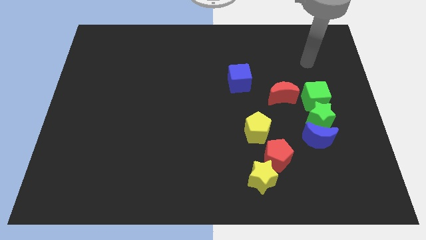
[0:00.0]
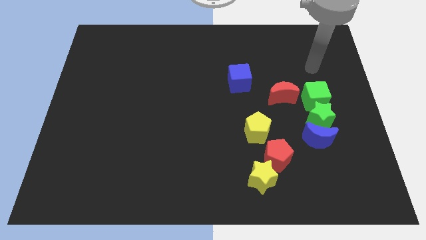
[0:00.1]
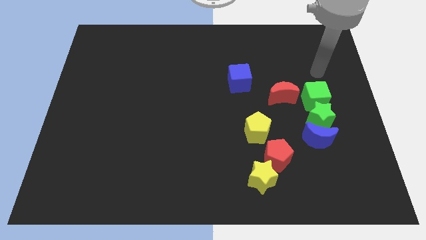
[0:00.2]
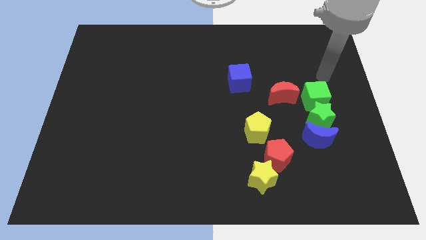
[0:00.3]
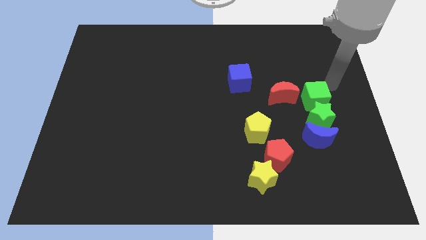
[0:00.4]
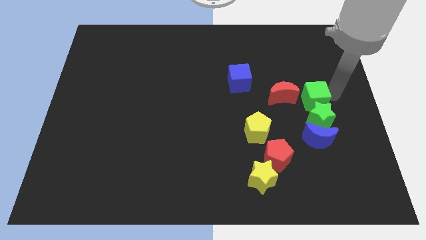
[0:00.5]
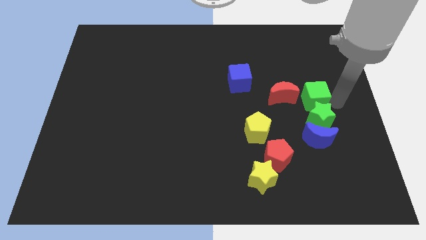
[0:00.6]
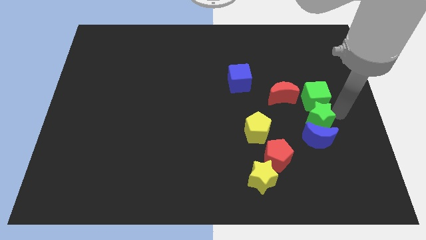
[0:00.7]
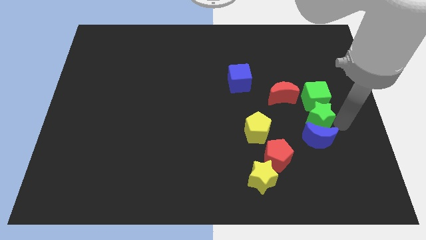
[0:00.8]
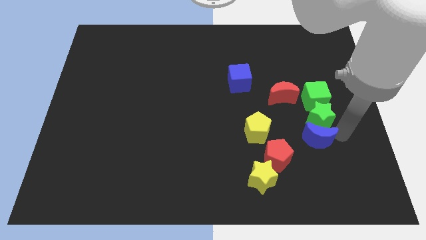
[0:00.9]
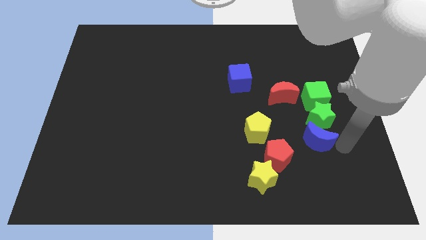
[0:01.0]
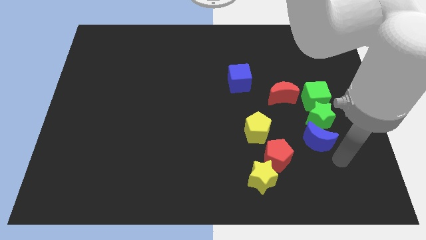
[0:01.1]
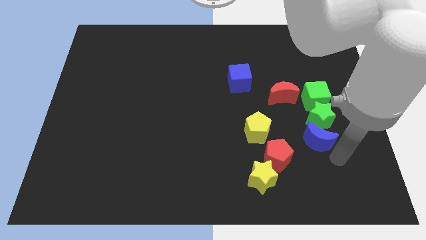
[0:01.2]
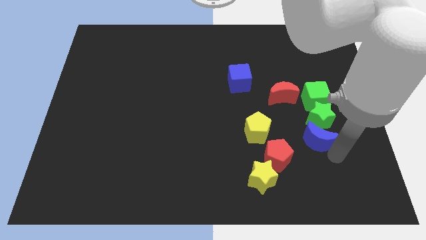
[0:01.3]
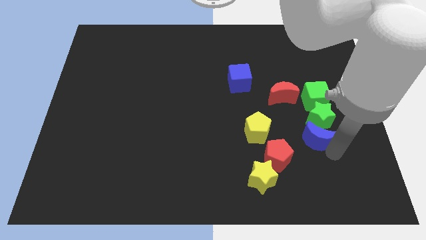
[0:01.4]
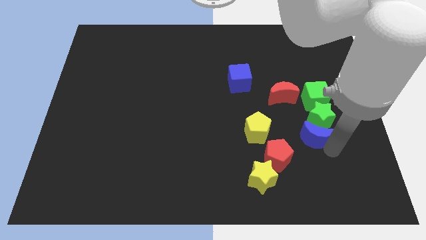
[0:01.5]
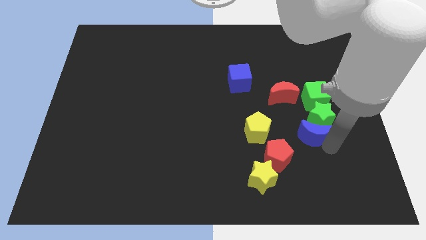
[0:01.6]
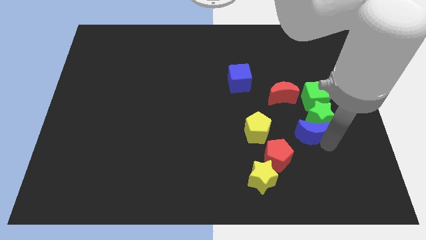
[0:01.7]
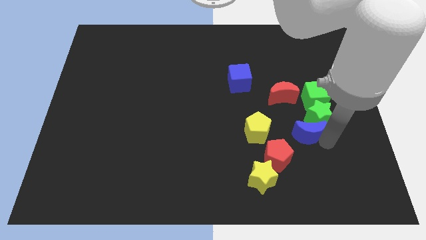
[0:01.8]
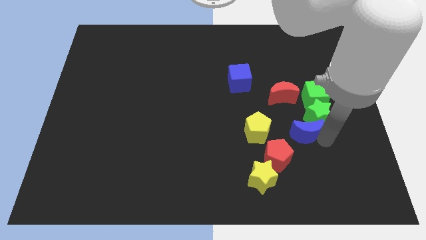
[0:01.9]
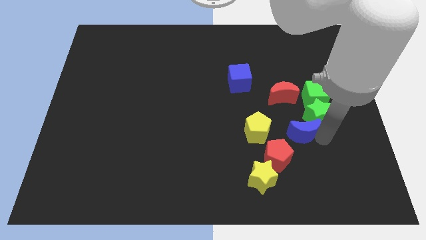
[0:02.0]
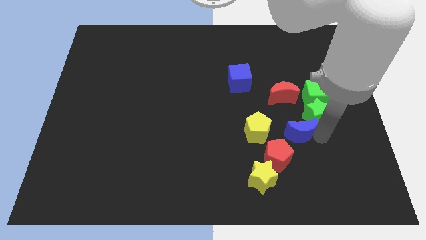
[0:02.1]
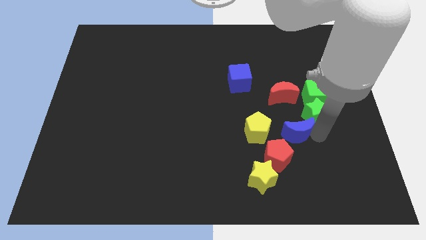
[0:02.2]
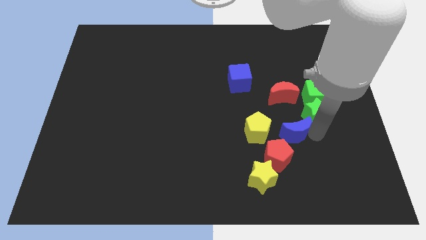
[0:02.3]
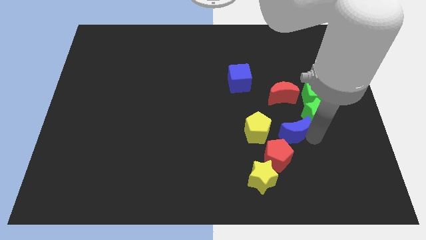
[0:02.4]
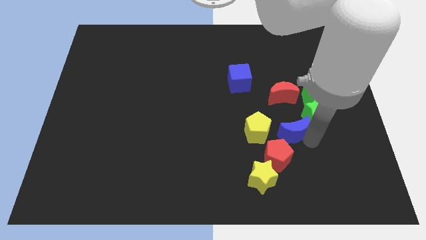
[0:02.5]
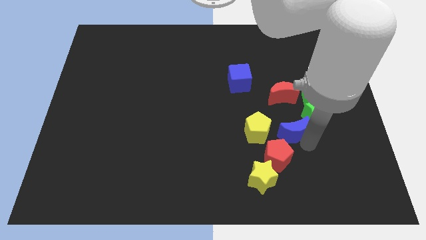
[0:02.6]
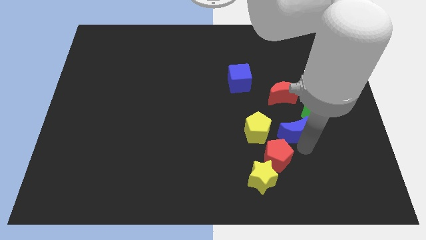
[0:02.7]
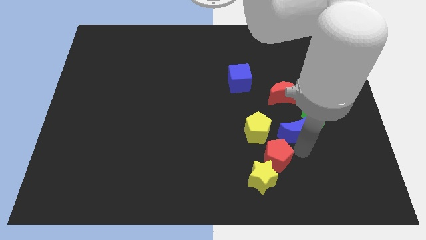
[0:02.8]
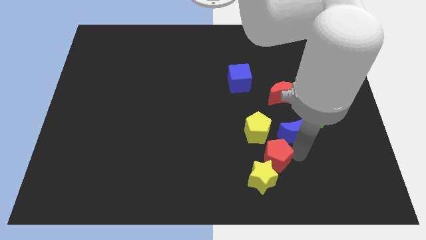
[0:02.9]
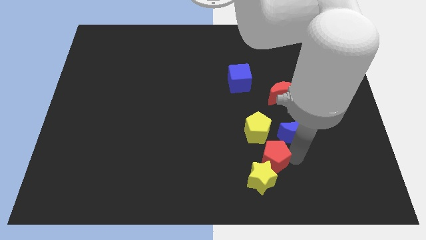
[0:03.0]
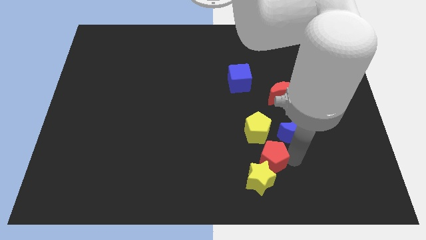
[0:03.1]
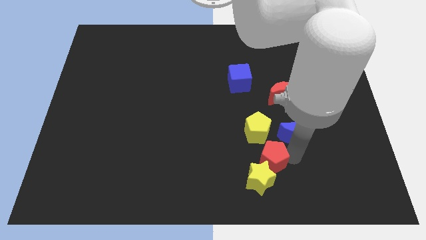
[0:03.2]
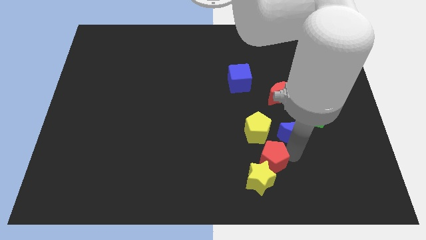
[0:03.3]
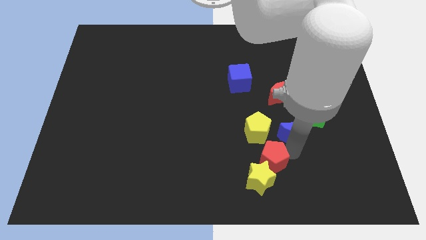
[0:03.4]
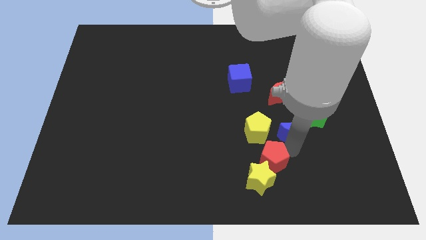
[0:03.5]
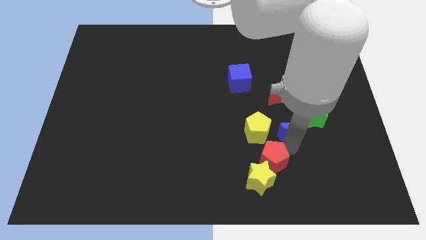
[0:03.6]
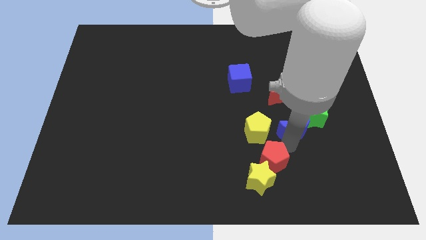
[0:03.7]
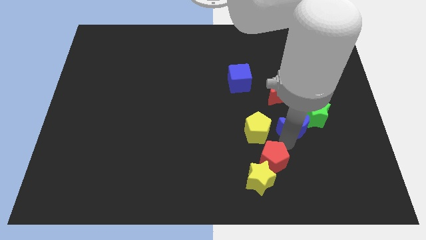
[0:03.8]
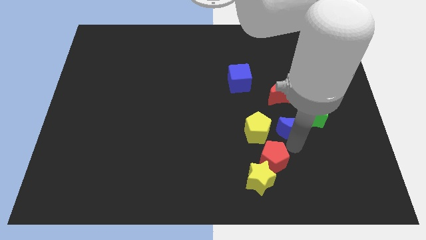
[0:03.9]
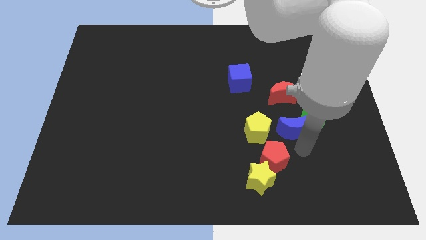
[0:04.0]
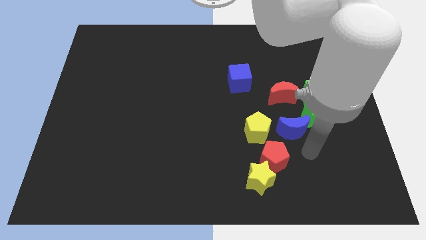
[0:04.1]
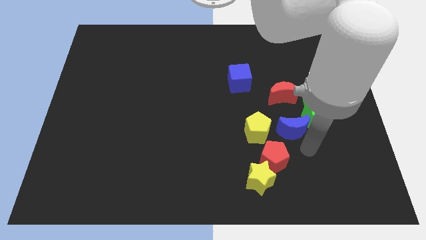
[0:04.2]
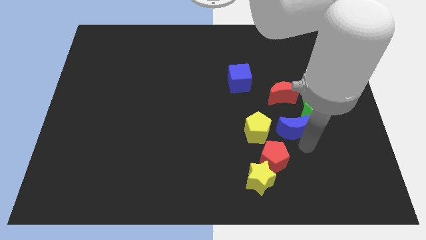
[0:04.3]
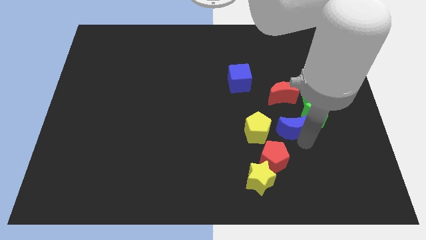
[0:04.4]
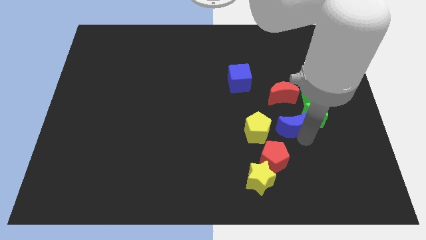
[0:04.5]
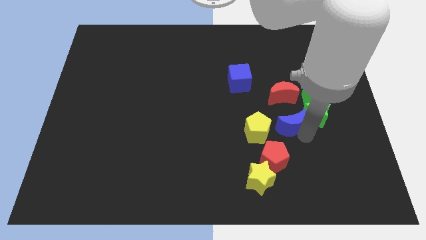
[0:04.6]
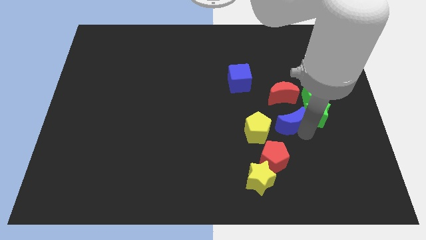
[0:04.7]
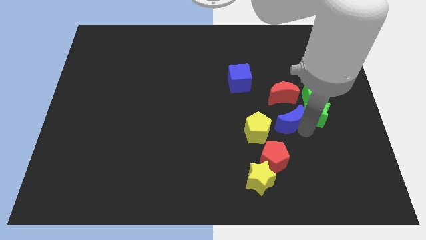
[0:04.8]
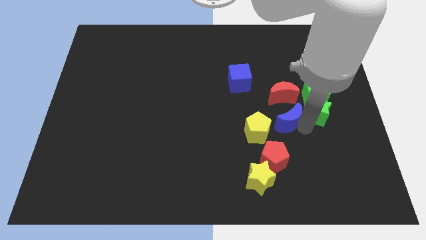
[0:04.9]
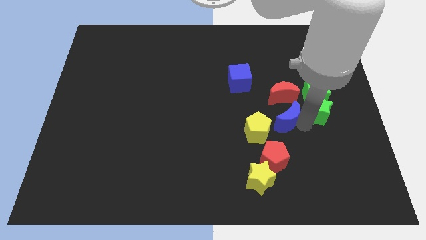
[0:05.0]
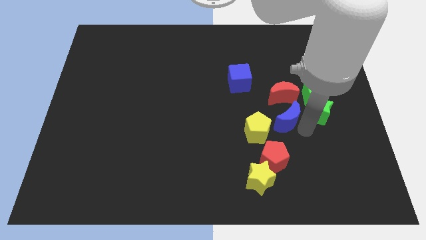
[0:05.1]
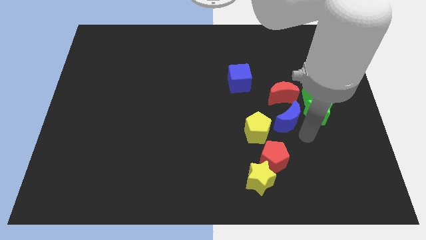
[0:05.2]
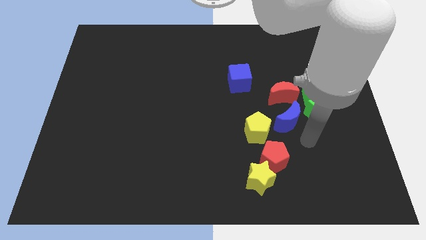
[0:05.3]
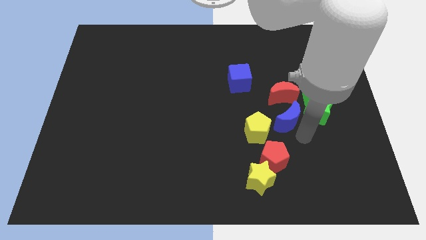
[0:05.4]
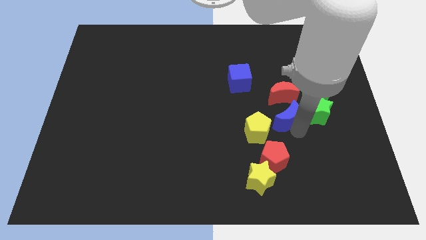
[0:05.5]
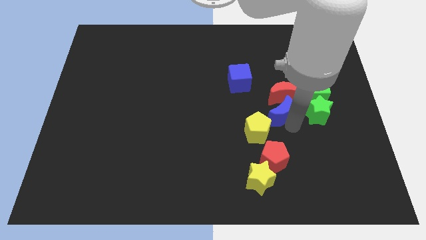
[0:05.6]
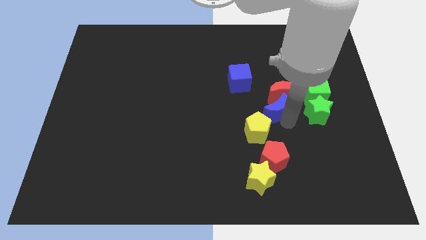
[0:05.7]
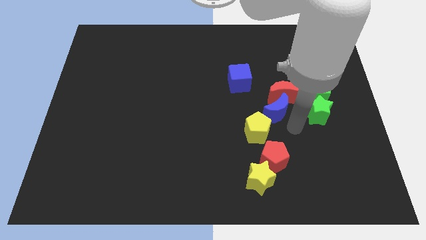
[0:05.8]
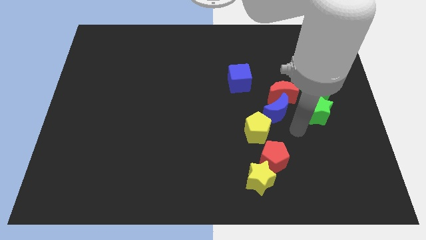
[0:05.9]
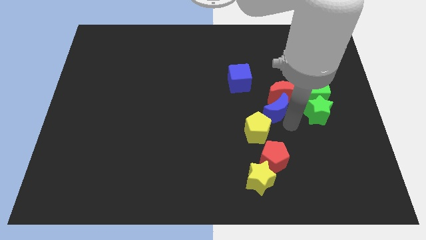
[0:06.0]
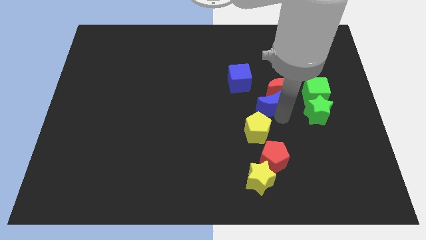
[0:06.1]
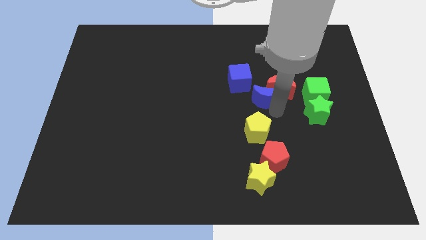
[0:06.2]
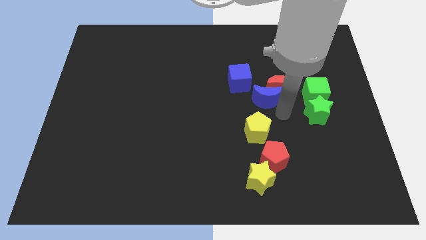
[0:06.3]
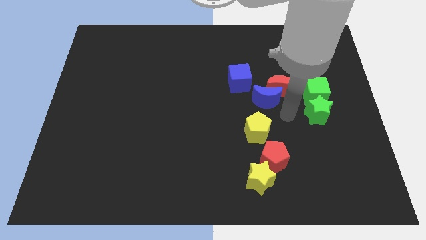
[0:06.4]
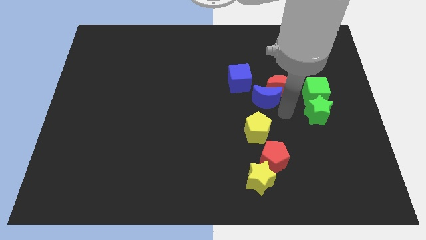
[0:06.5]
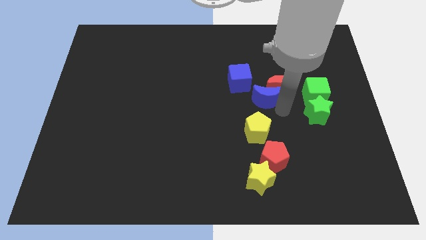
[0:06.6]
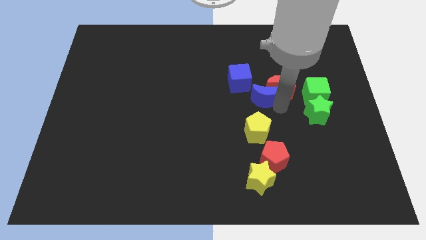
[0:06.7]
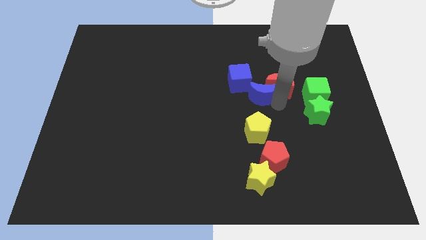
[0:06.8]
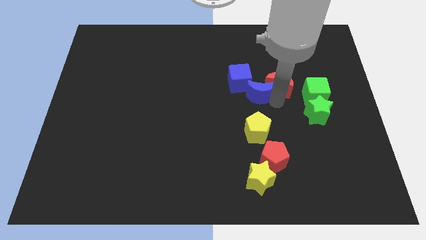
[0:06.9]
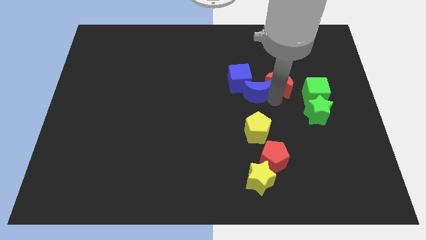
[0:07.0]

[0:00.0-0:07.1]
push the blue moon next to the blue cube

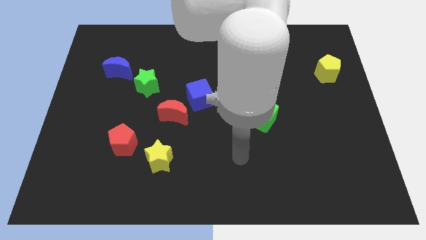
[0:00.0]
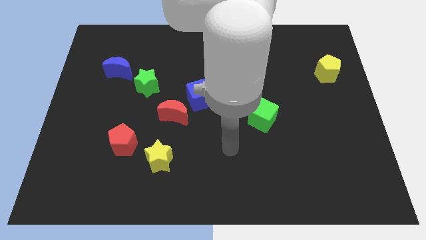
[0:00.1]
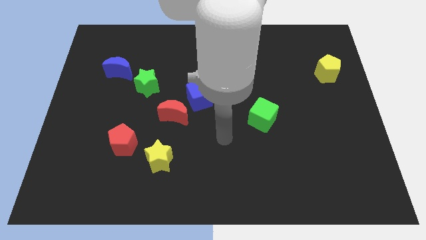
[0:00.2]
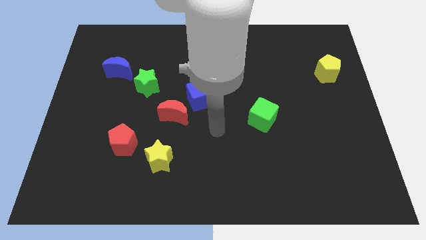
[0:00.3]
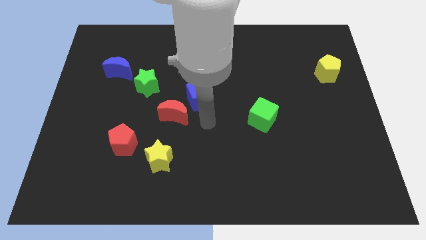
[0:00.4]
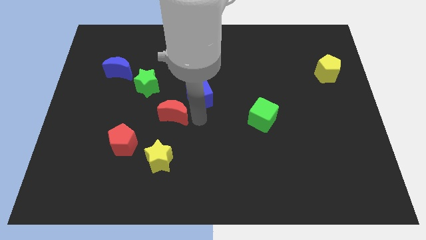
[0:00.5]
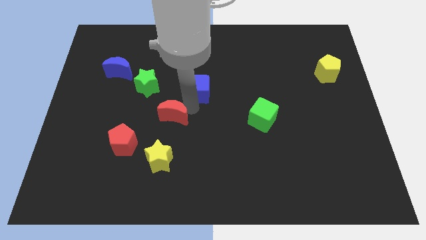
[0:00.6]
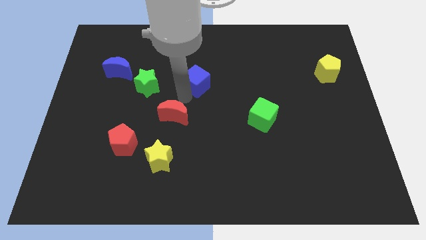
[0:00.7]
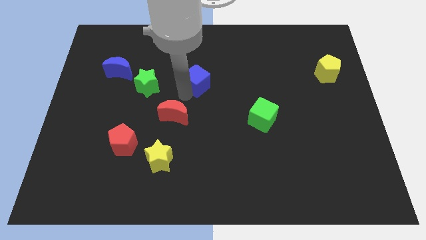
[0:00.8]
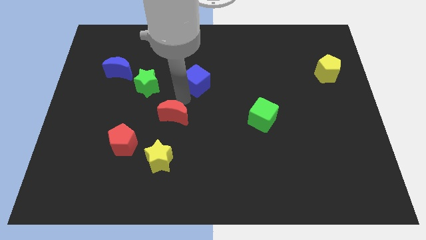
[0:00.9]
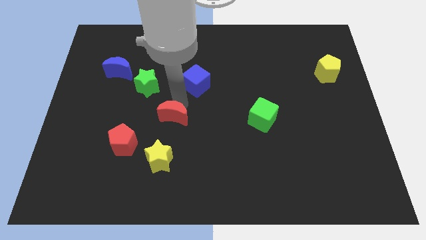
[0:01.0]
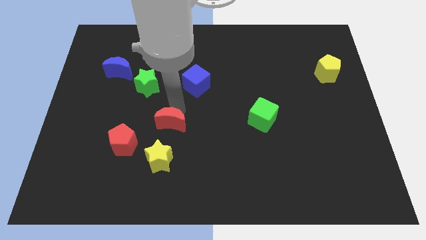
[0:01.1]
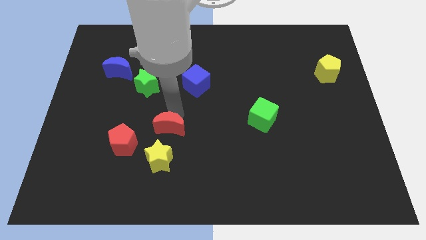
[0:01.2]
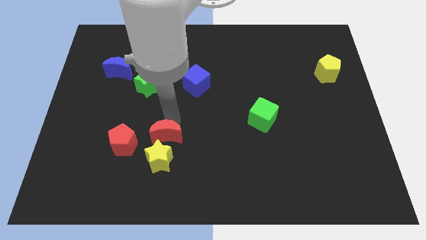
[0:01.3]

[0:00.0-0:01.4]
slide the red moon to the yellow star
